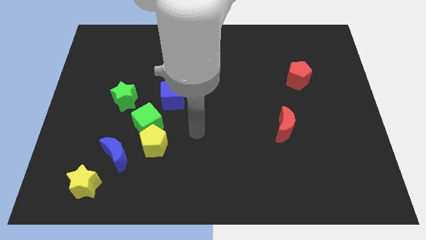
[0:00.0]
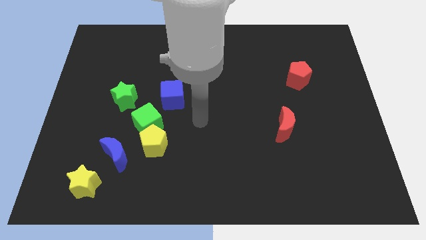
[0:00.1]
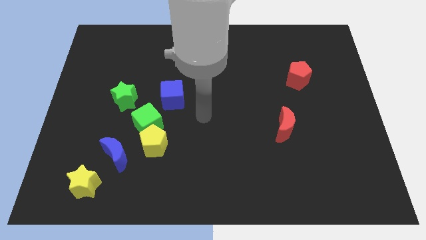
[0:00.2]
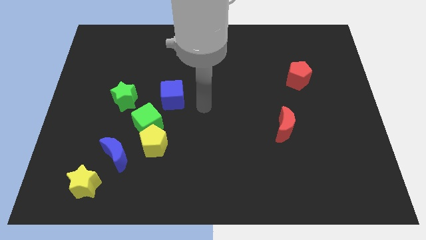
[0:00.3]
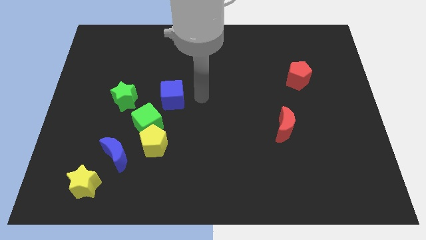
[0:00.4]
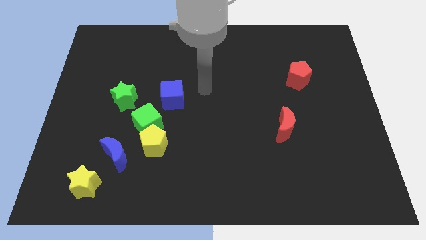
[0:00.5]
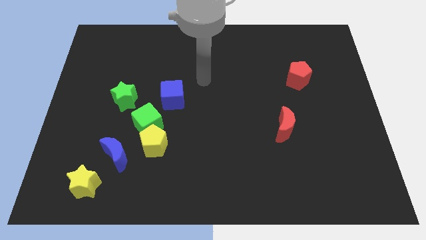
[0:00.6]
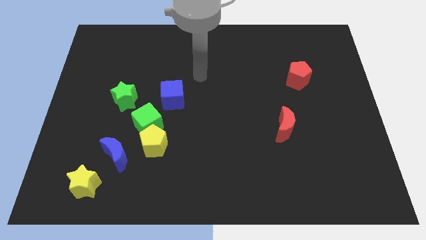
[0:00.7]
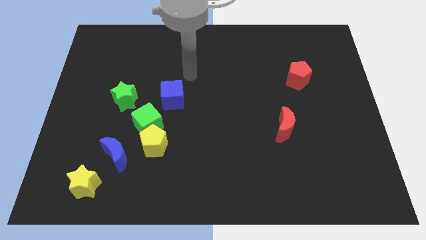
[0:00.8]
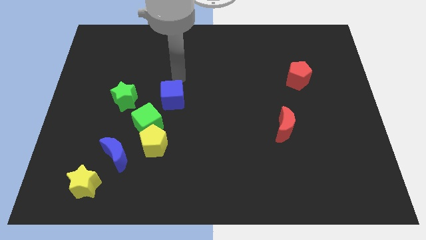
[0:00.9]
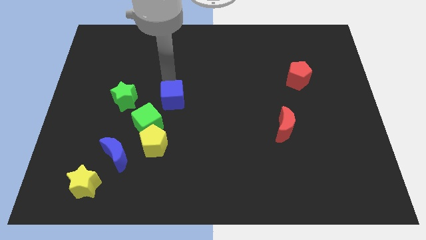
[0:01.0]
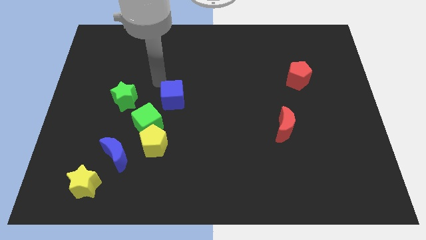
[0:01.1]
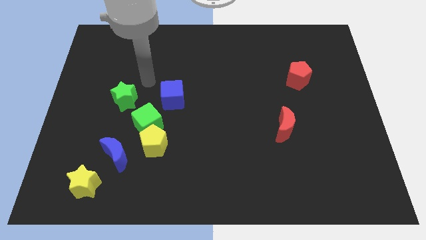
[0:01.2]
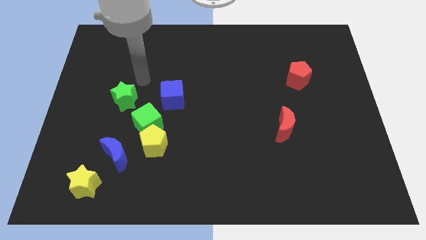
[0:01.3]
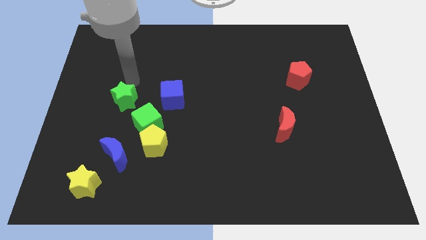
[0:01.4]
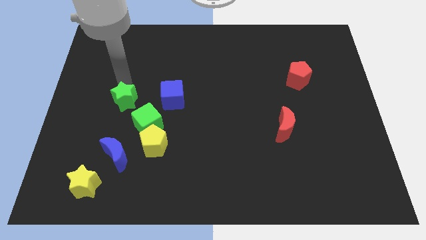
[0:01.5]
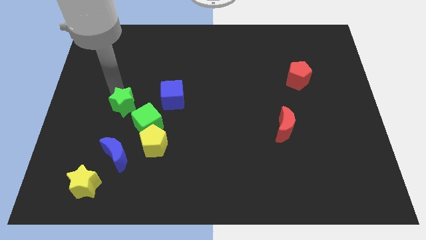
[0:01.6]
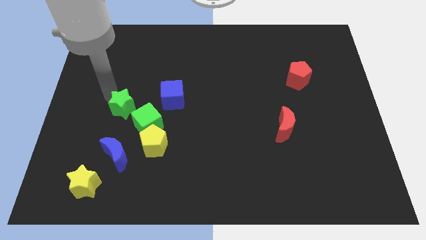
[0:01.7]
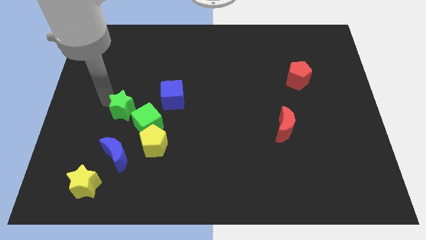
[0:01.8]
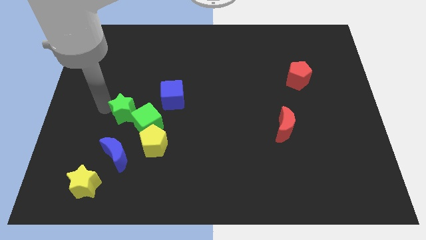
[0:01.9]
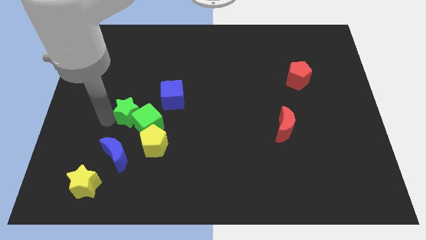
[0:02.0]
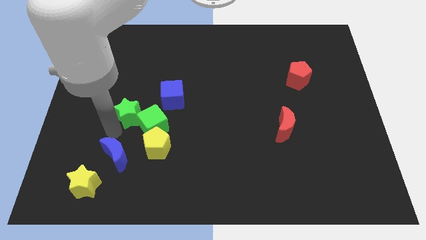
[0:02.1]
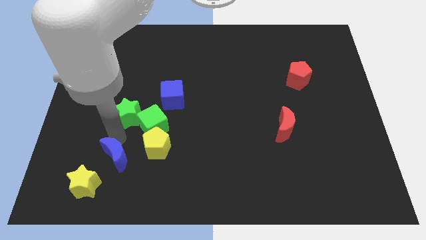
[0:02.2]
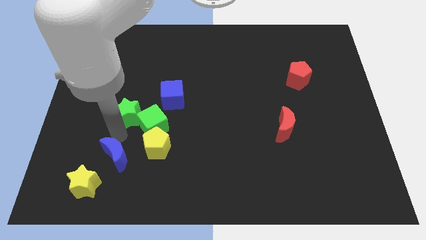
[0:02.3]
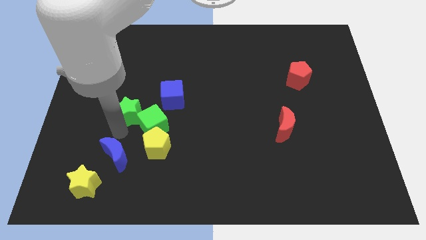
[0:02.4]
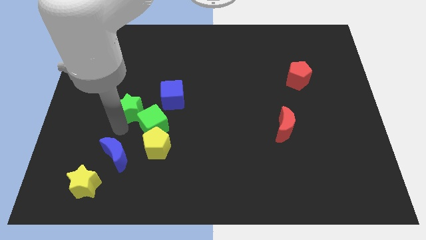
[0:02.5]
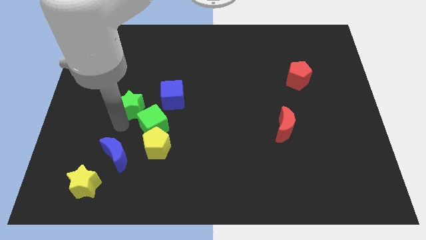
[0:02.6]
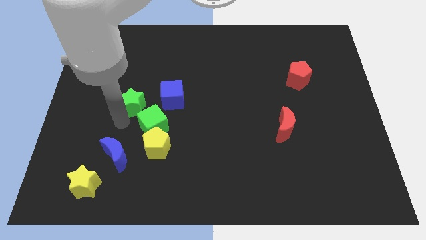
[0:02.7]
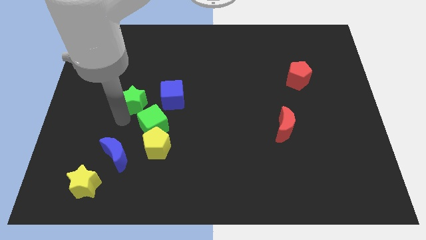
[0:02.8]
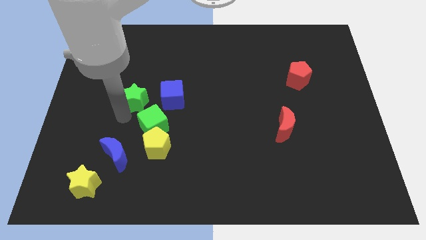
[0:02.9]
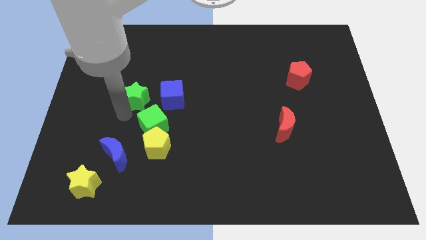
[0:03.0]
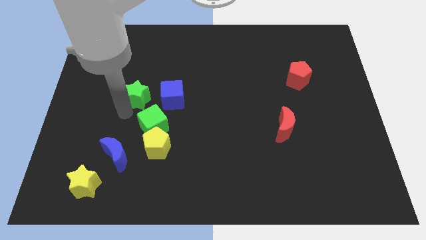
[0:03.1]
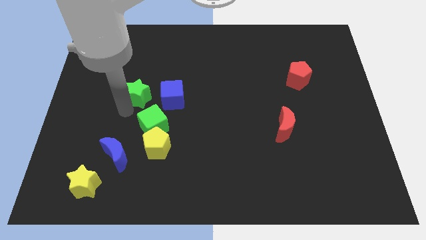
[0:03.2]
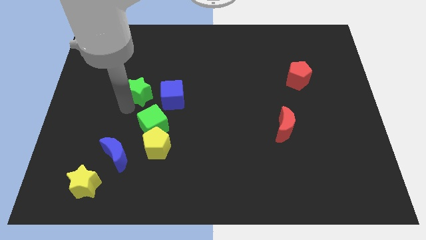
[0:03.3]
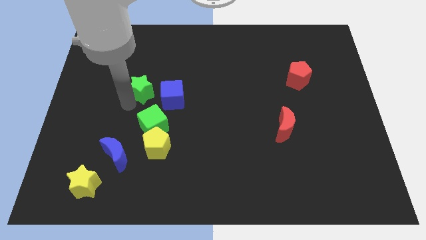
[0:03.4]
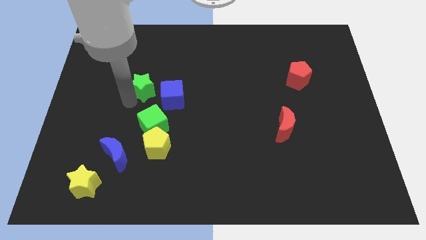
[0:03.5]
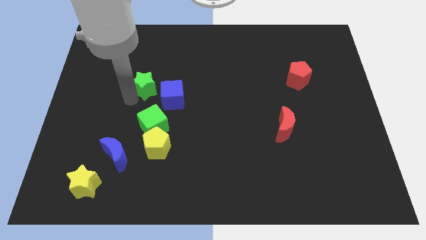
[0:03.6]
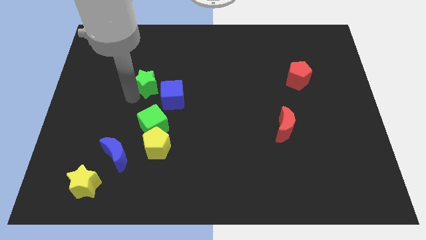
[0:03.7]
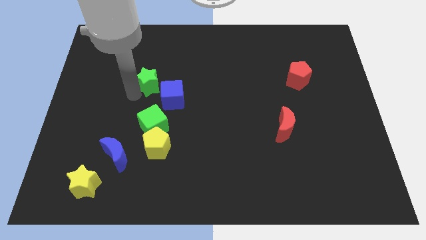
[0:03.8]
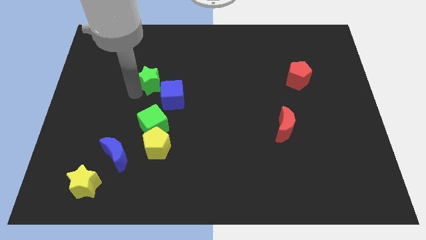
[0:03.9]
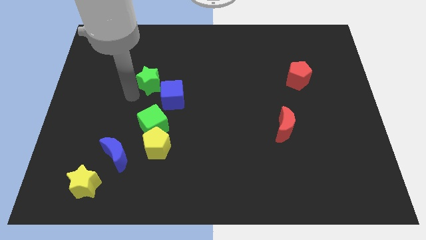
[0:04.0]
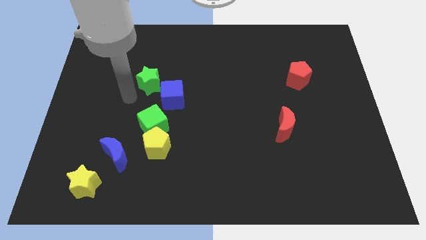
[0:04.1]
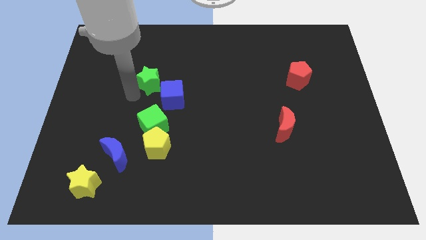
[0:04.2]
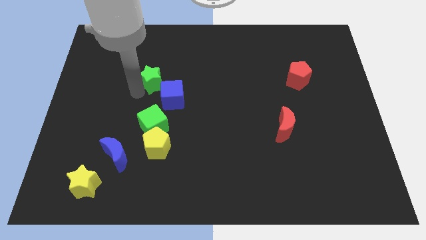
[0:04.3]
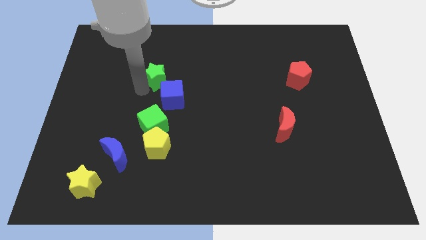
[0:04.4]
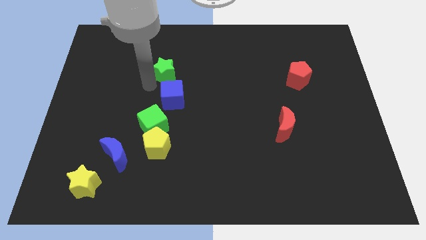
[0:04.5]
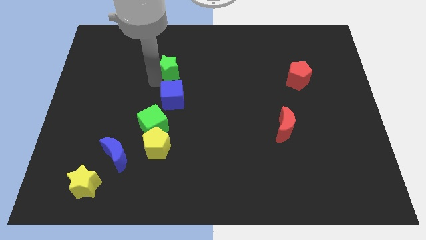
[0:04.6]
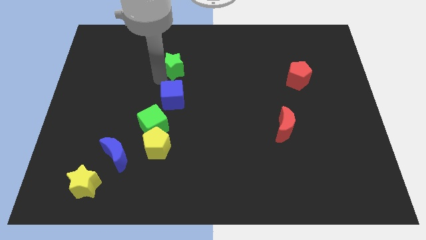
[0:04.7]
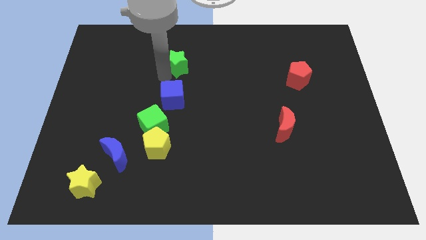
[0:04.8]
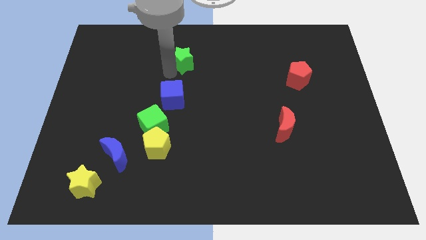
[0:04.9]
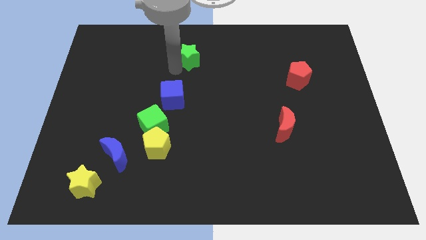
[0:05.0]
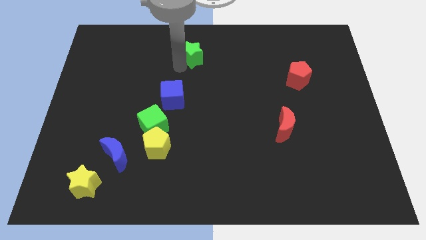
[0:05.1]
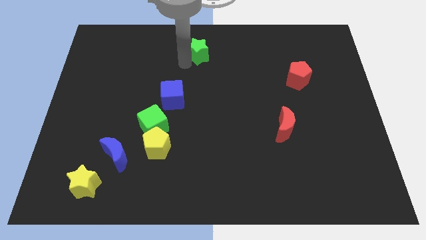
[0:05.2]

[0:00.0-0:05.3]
slide the green star to the towards your base

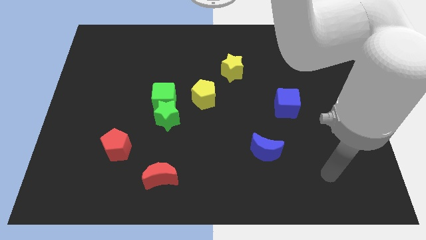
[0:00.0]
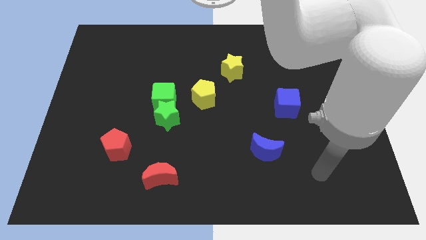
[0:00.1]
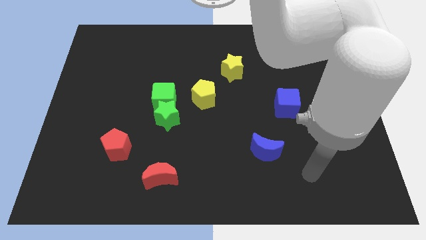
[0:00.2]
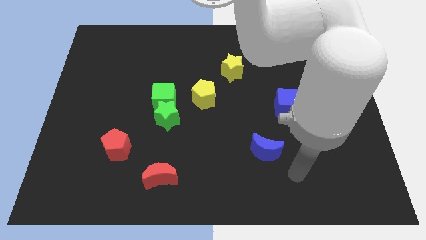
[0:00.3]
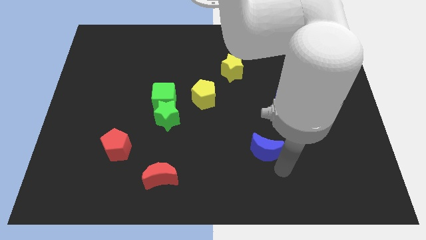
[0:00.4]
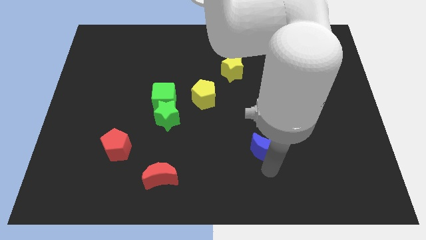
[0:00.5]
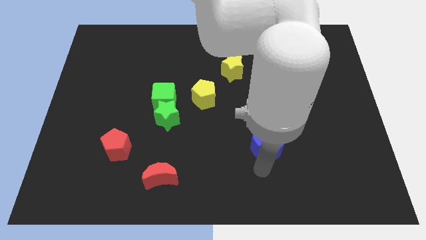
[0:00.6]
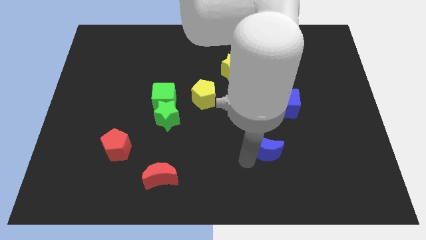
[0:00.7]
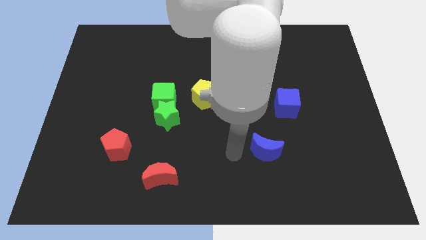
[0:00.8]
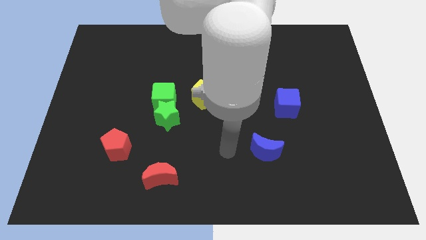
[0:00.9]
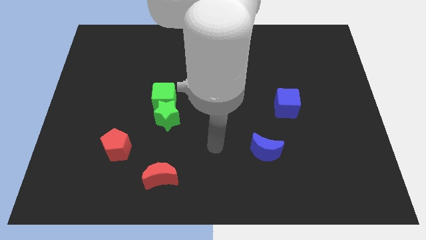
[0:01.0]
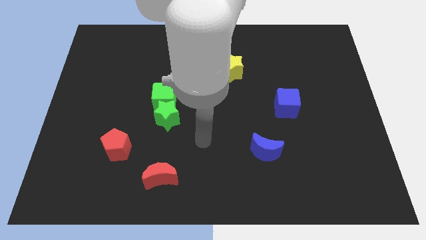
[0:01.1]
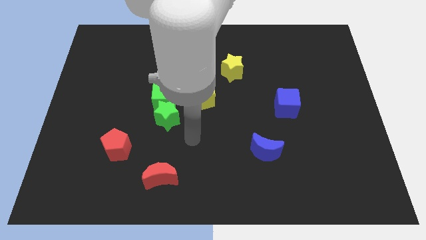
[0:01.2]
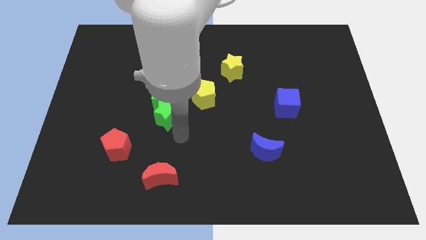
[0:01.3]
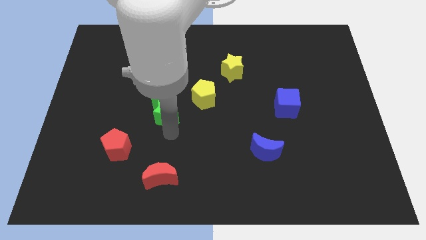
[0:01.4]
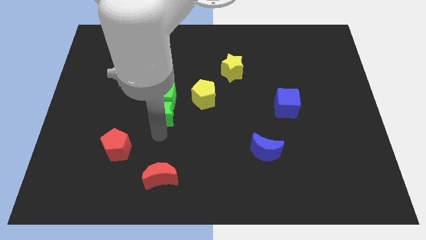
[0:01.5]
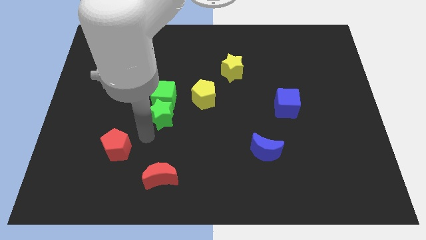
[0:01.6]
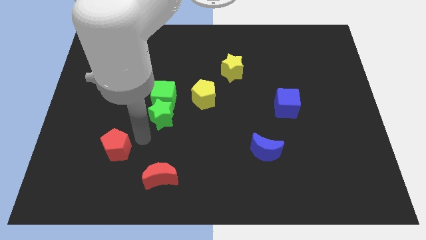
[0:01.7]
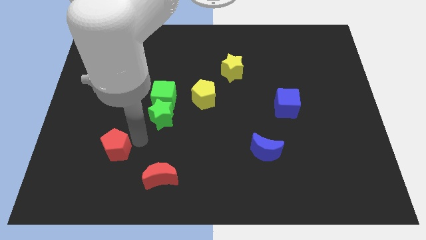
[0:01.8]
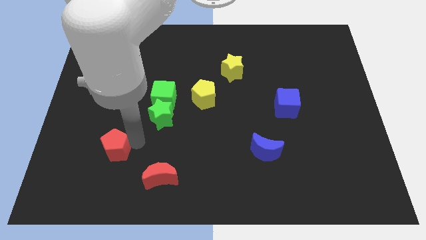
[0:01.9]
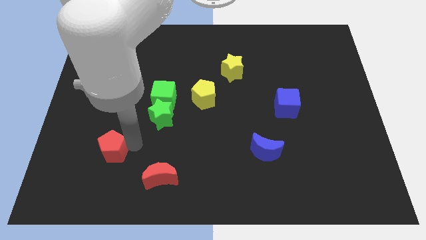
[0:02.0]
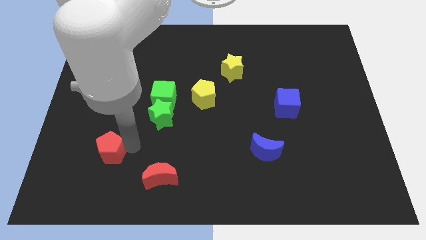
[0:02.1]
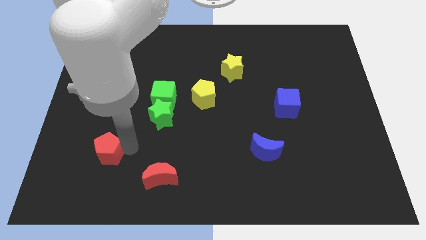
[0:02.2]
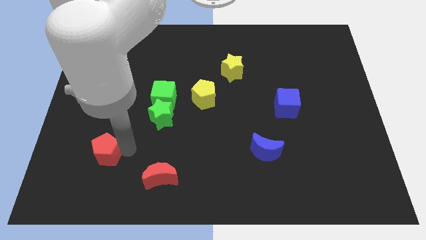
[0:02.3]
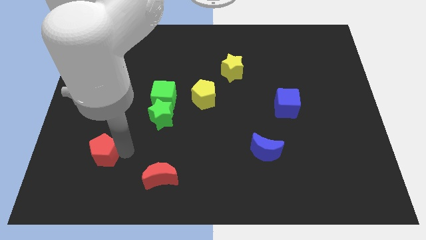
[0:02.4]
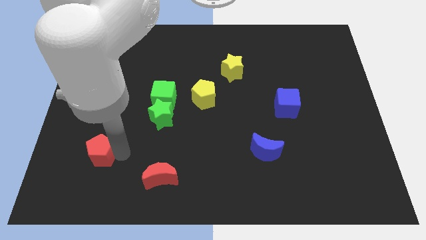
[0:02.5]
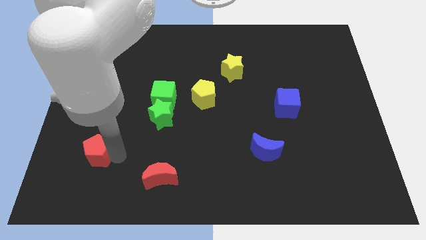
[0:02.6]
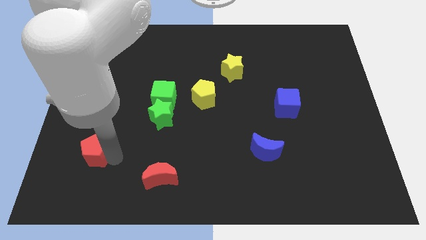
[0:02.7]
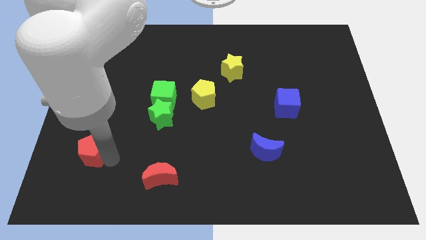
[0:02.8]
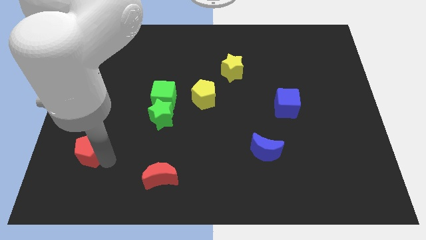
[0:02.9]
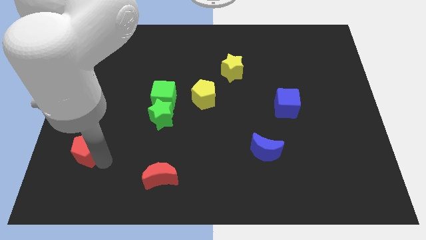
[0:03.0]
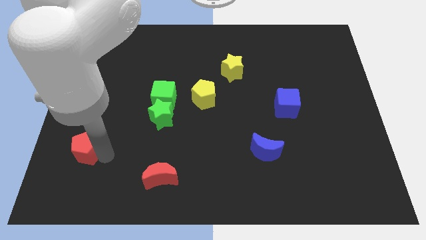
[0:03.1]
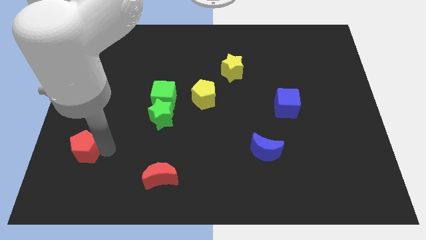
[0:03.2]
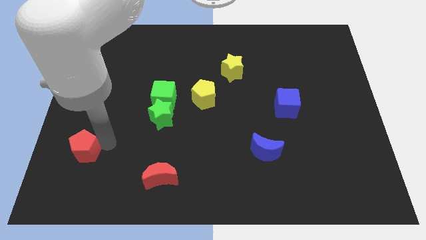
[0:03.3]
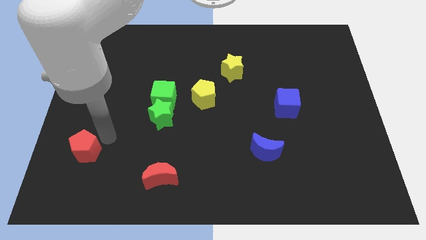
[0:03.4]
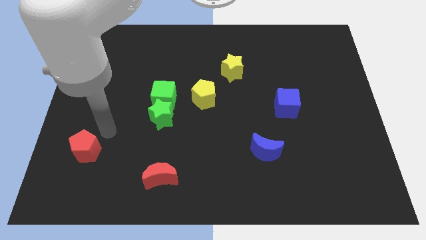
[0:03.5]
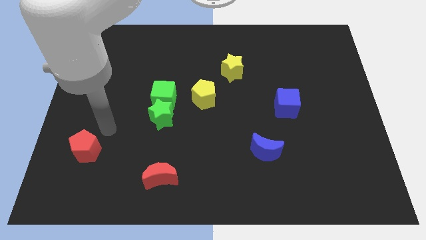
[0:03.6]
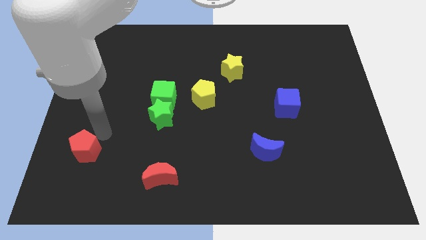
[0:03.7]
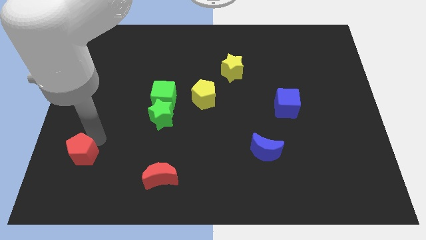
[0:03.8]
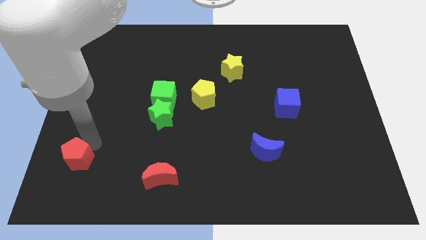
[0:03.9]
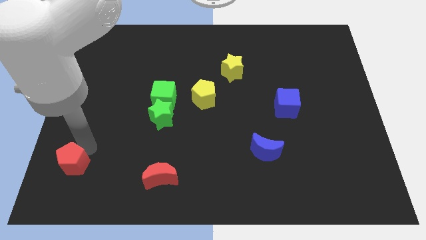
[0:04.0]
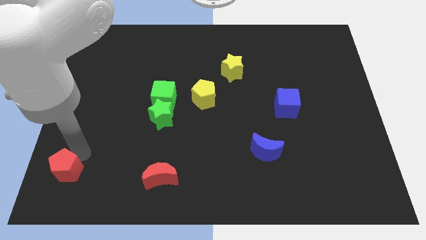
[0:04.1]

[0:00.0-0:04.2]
put the red pentagon to the bottom left of the board
